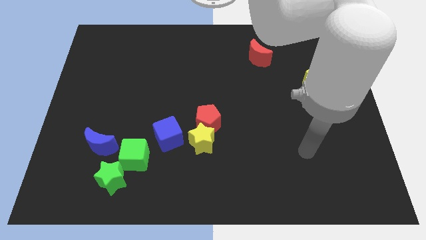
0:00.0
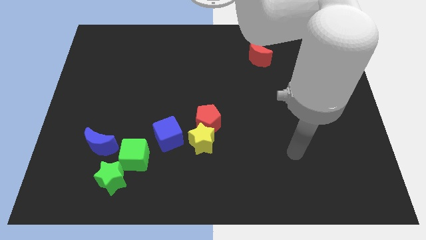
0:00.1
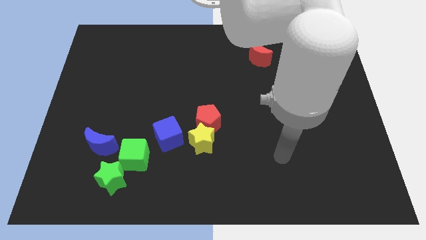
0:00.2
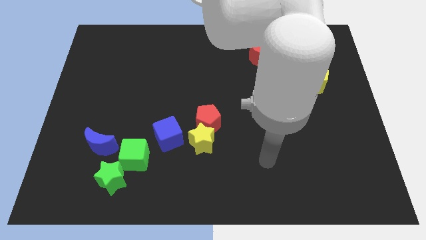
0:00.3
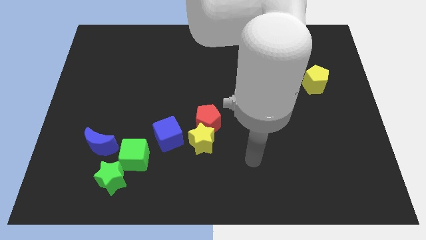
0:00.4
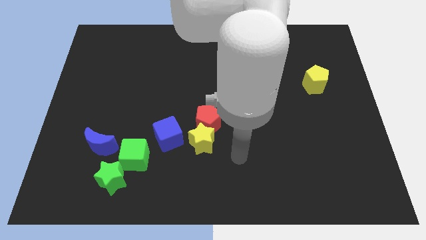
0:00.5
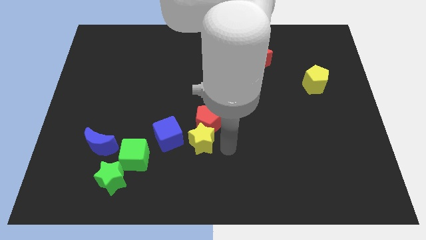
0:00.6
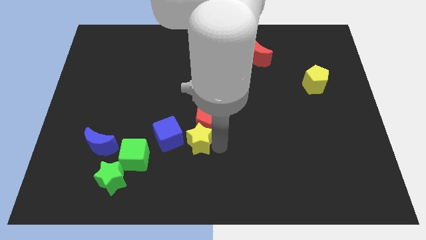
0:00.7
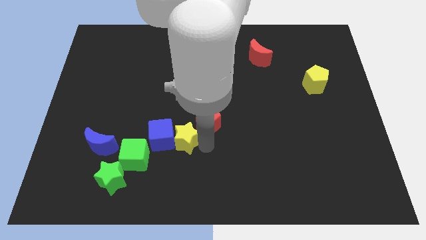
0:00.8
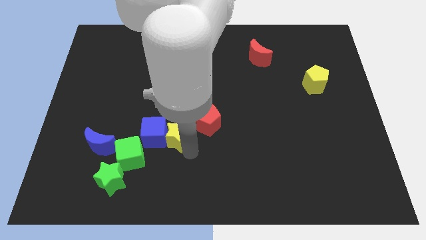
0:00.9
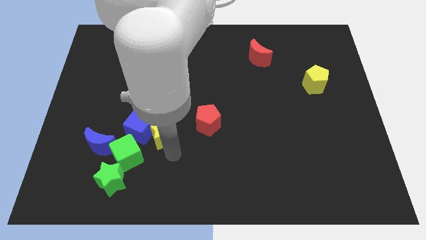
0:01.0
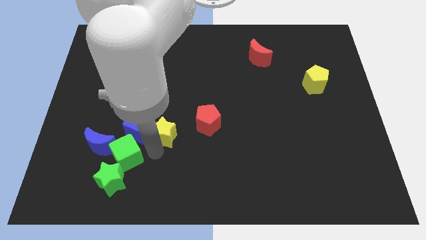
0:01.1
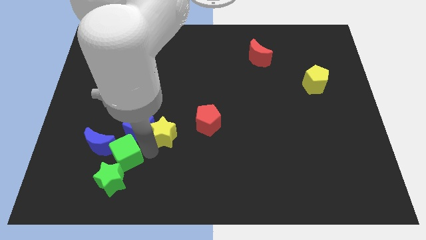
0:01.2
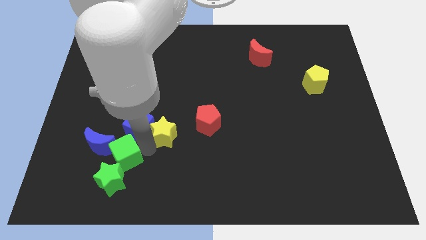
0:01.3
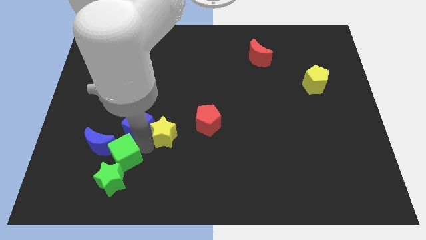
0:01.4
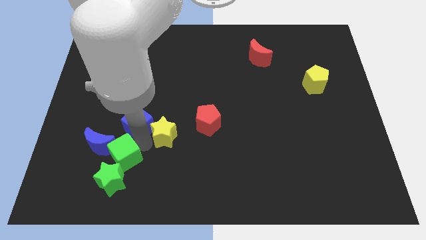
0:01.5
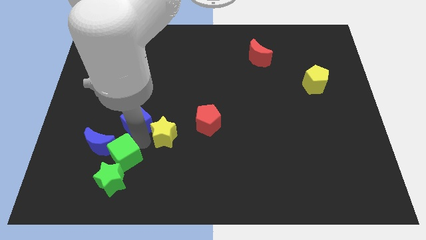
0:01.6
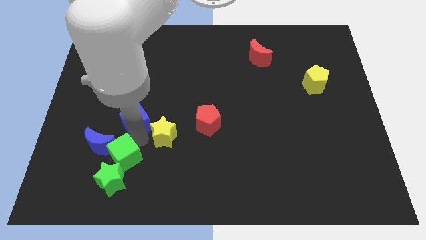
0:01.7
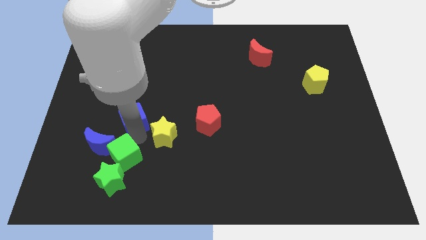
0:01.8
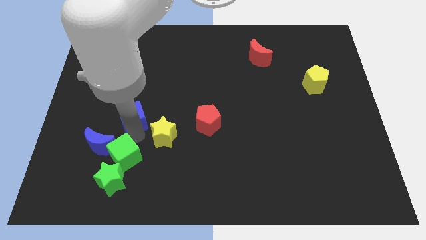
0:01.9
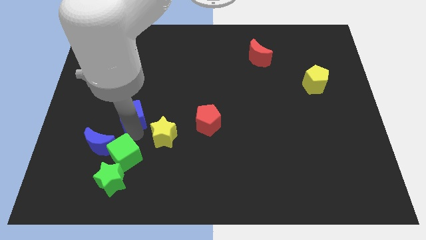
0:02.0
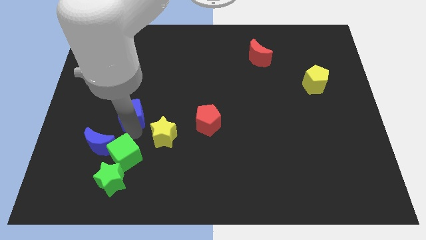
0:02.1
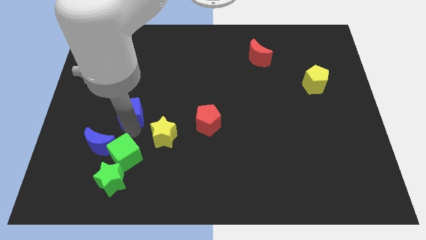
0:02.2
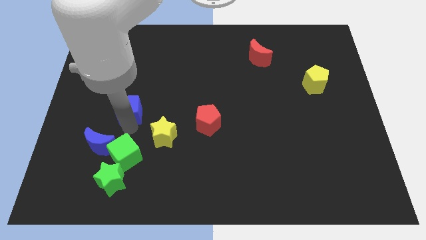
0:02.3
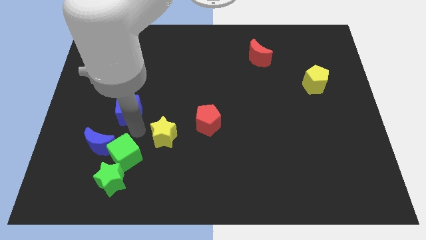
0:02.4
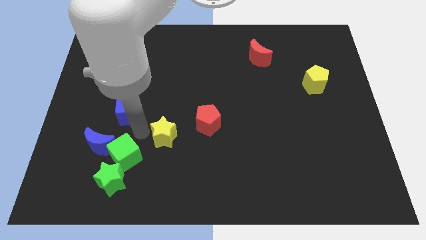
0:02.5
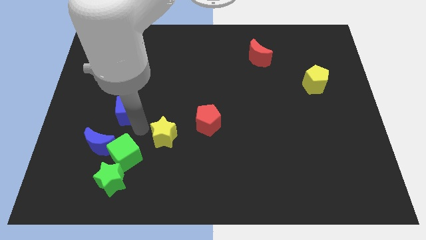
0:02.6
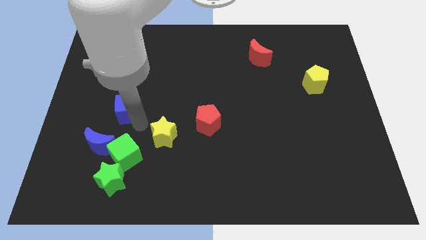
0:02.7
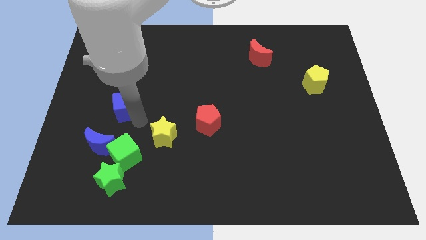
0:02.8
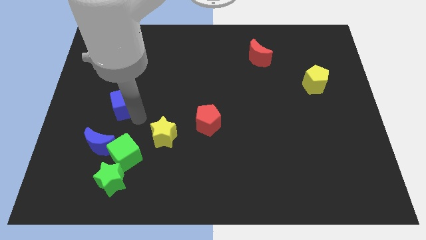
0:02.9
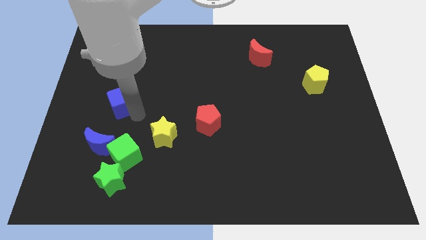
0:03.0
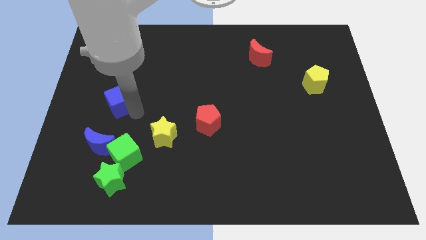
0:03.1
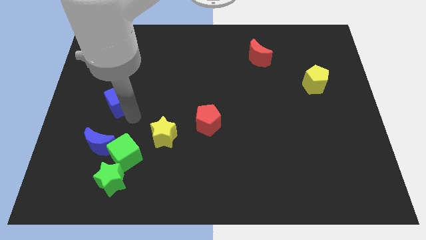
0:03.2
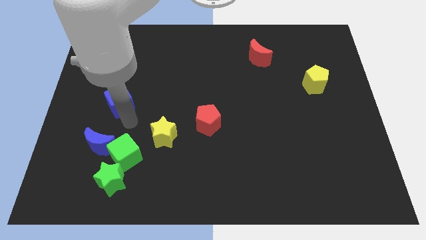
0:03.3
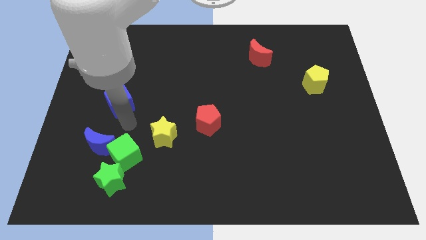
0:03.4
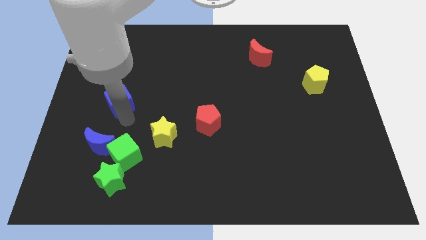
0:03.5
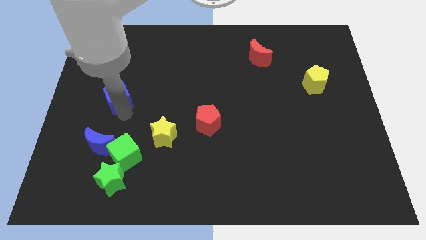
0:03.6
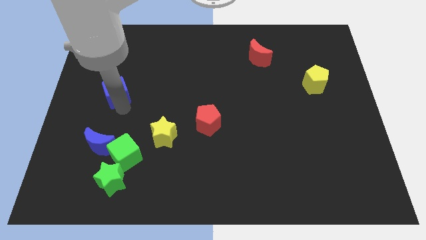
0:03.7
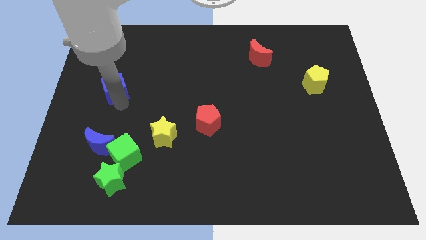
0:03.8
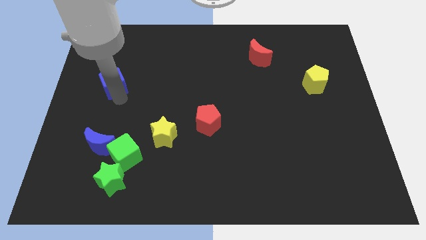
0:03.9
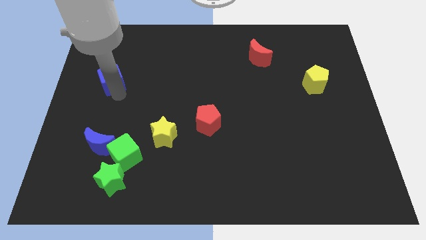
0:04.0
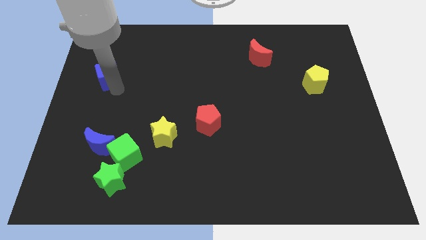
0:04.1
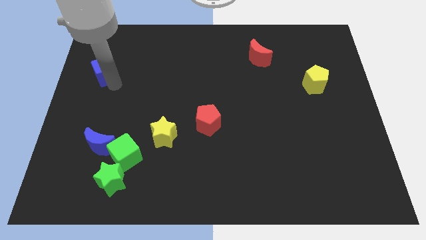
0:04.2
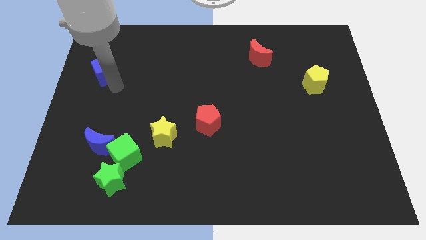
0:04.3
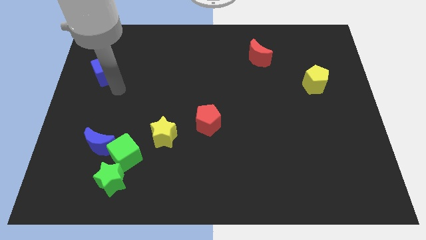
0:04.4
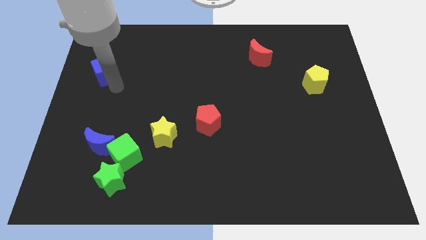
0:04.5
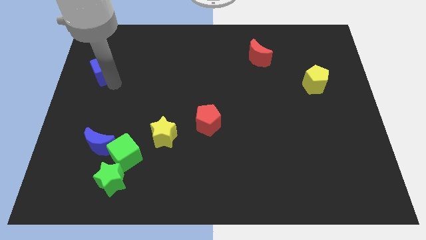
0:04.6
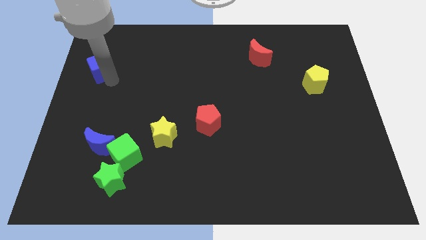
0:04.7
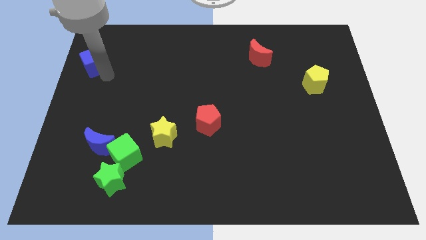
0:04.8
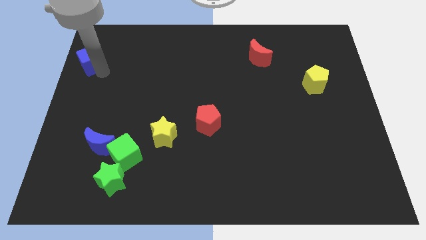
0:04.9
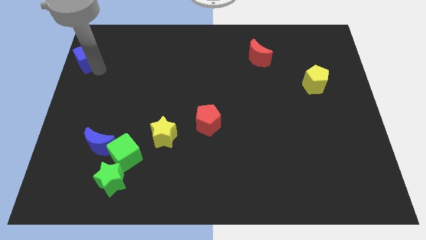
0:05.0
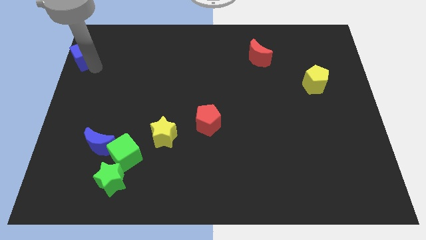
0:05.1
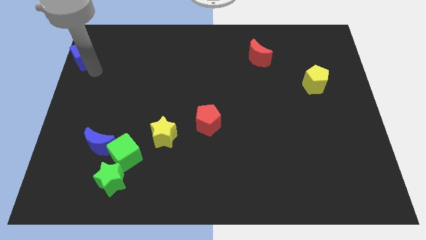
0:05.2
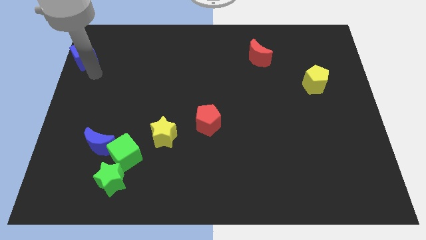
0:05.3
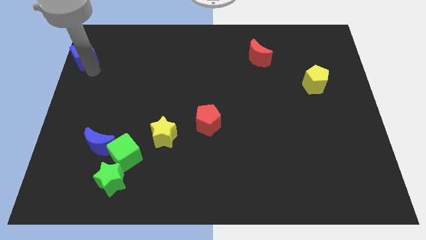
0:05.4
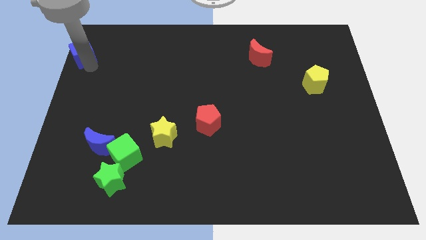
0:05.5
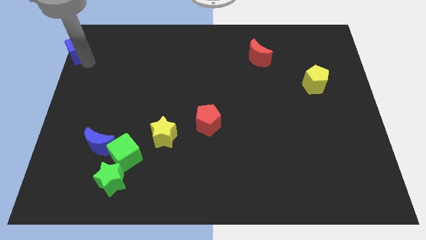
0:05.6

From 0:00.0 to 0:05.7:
put the blue cube to the top left corner
